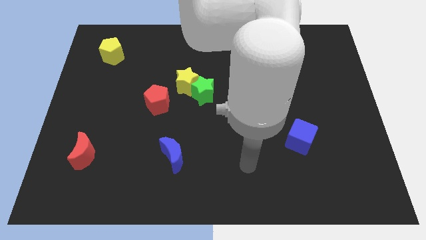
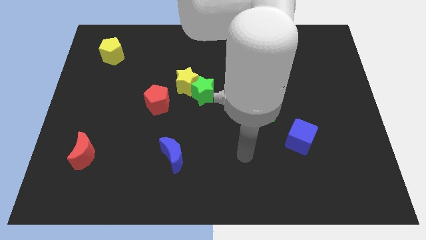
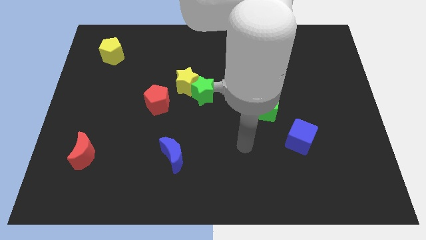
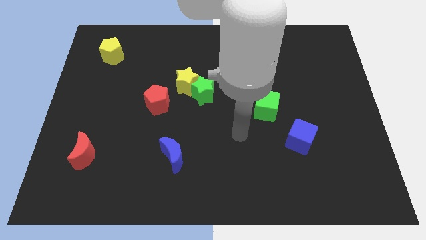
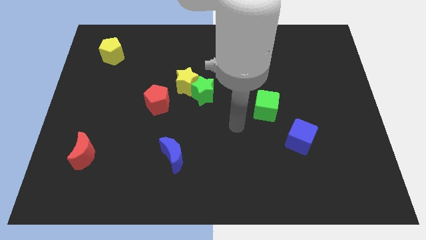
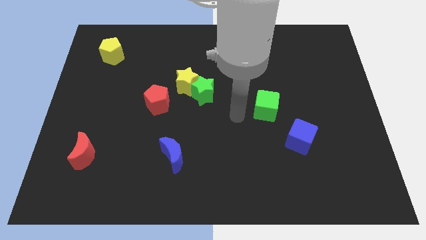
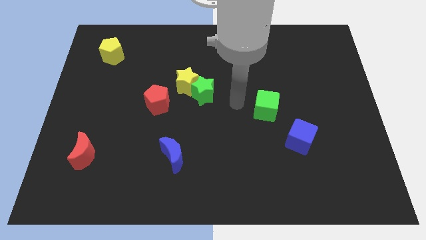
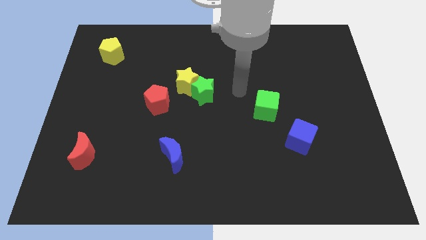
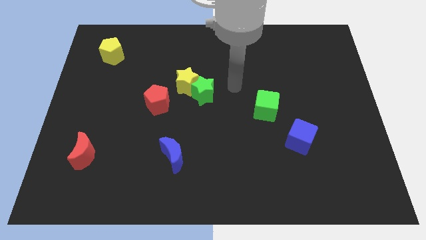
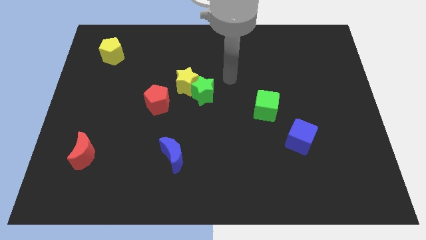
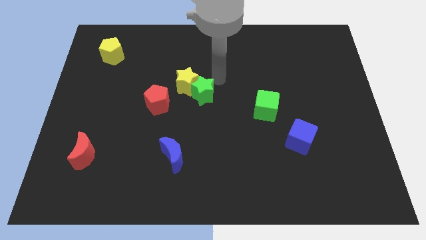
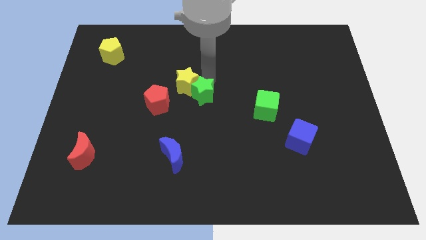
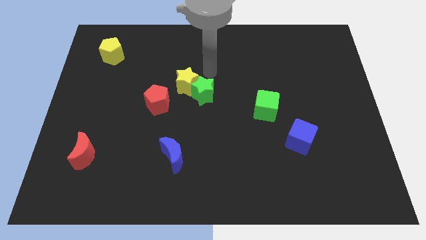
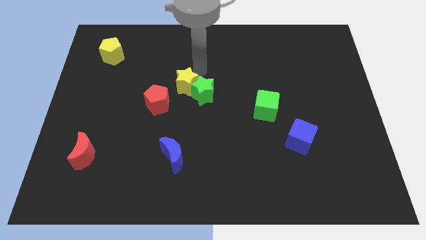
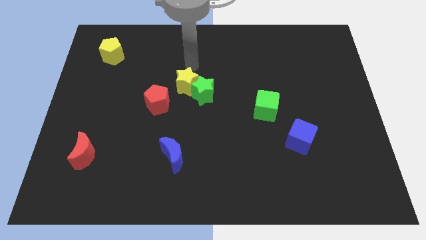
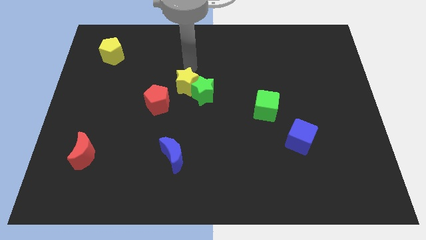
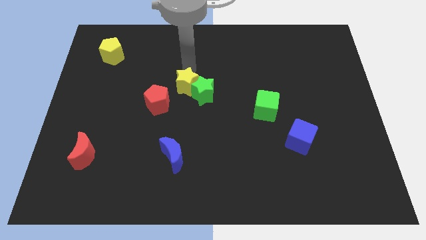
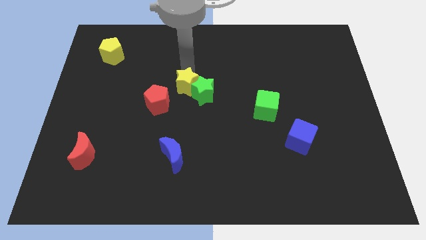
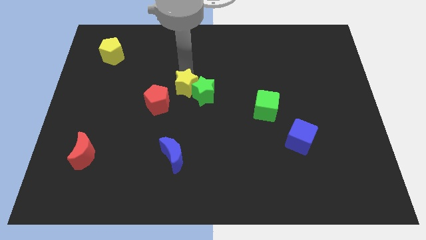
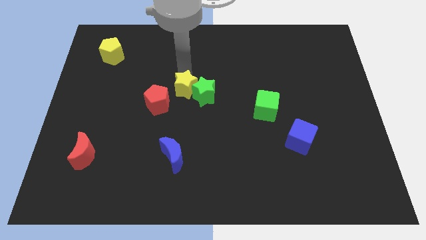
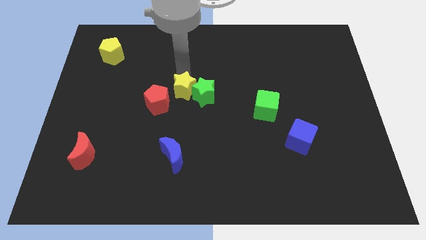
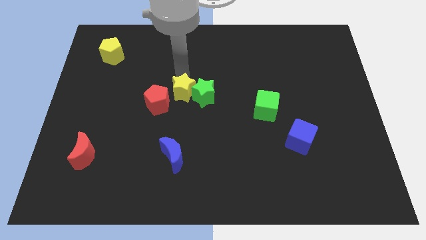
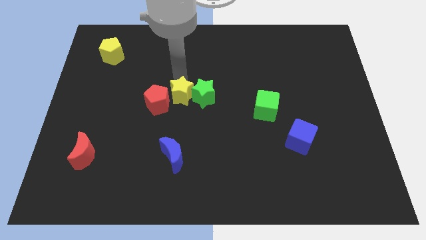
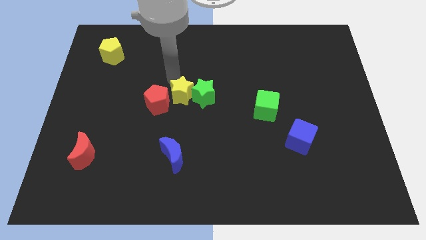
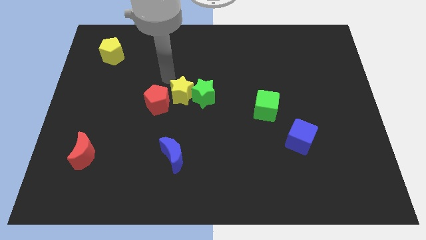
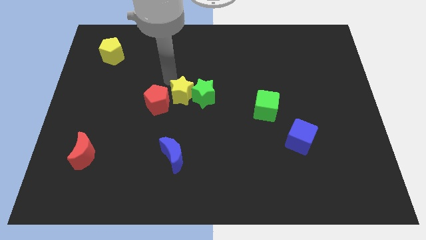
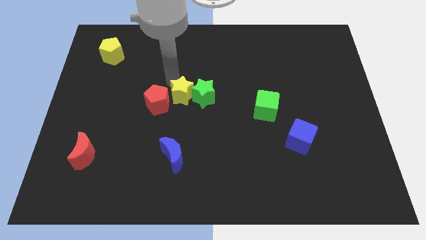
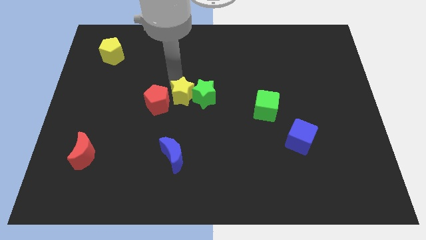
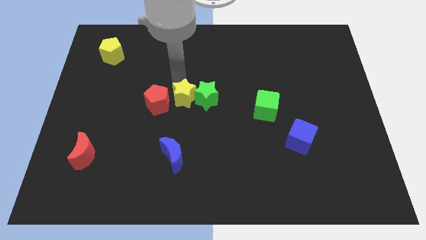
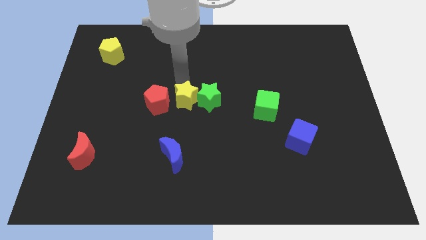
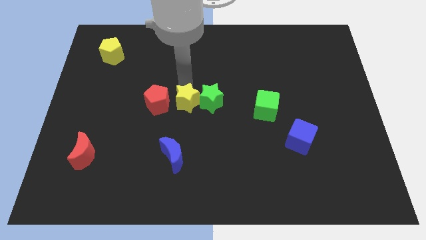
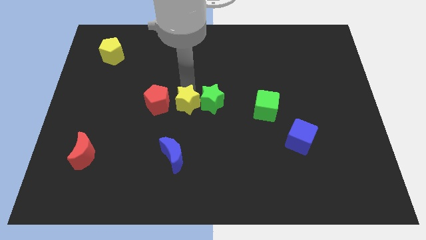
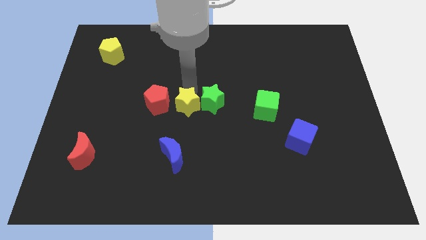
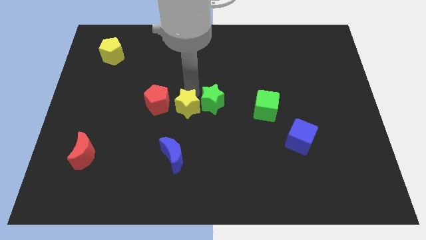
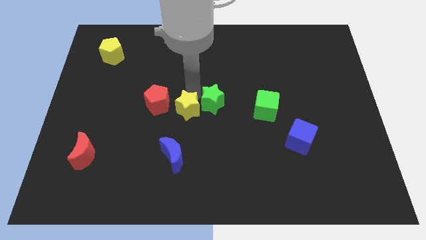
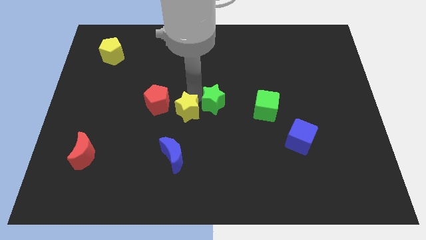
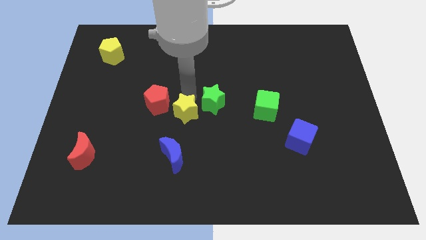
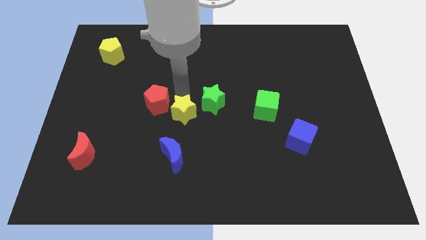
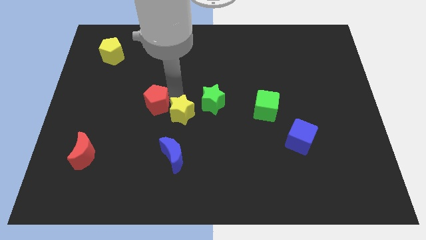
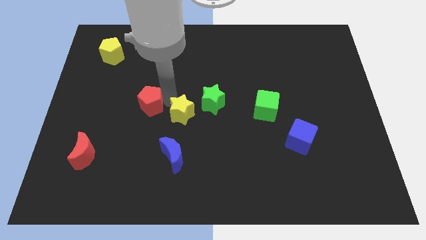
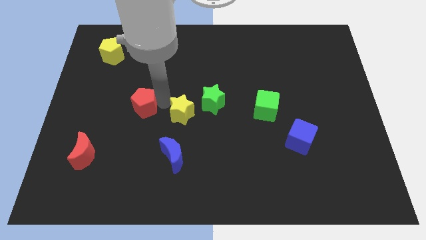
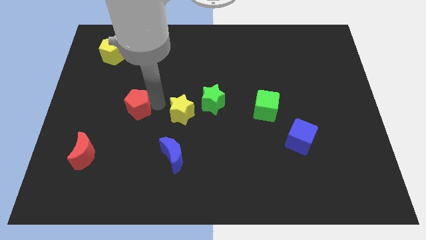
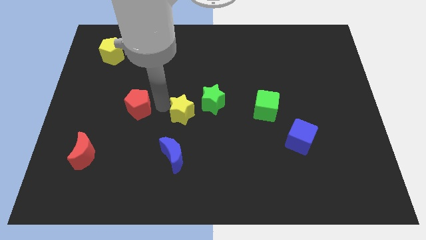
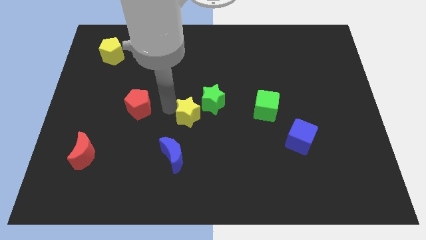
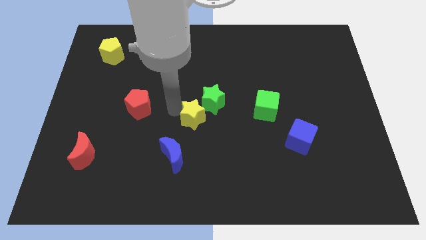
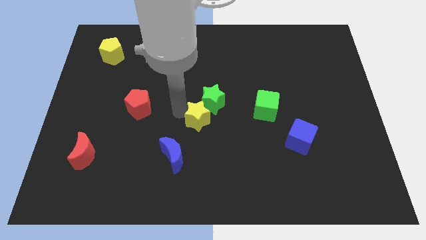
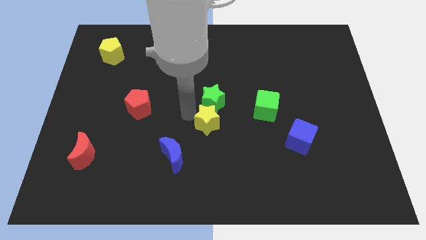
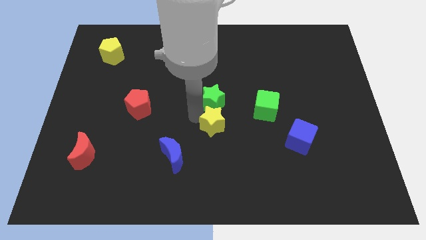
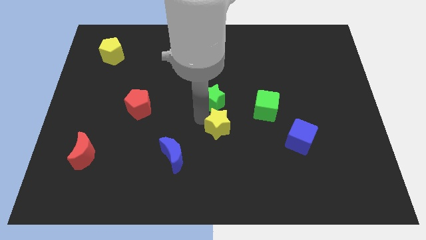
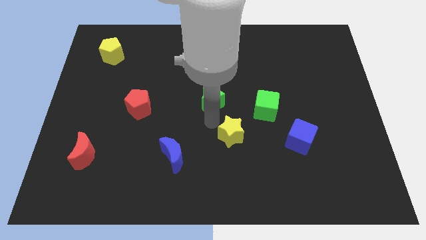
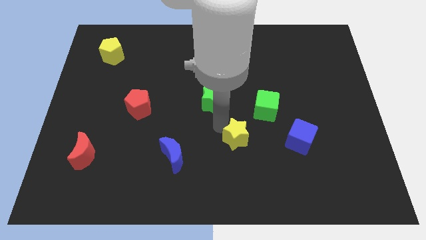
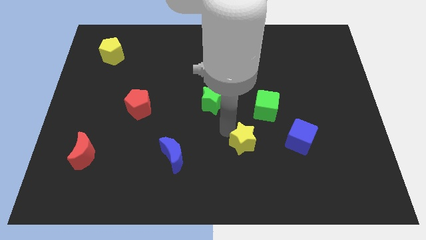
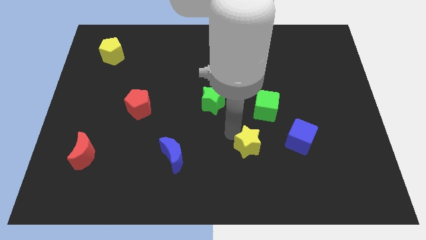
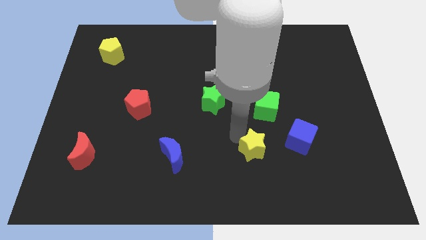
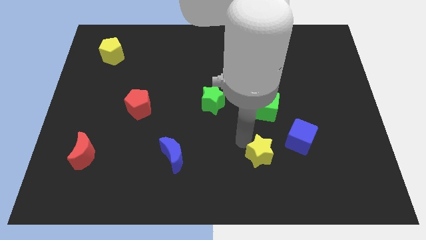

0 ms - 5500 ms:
push the yellow star to the bottom left side of the blue cube

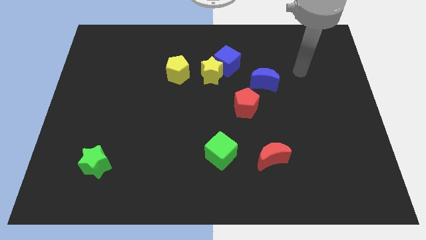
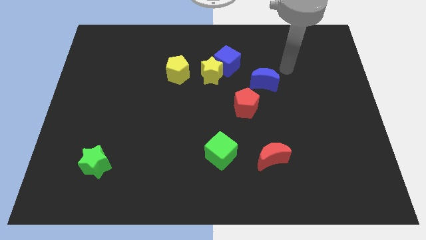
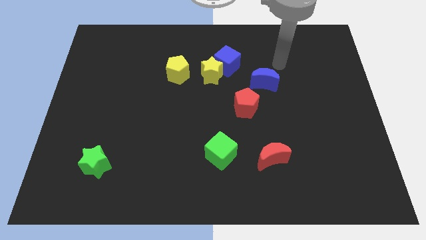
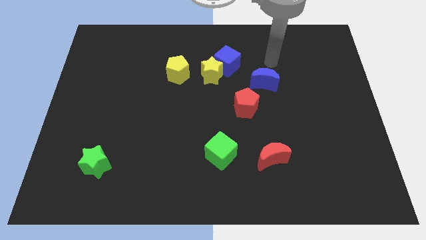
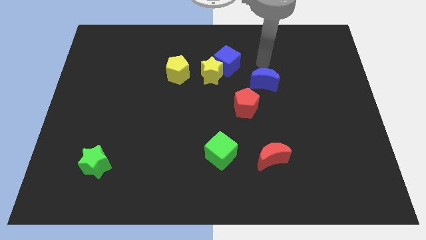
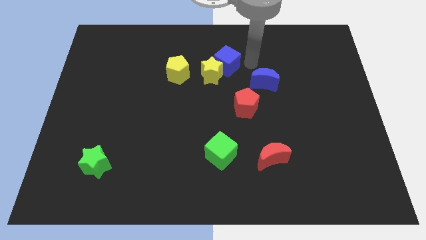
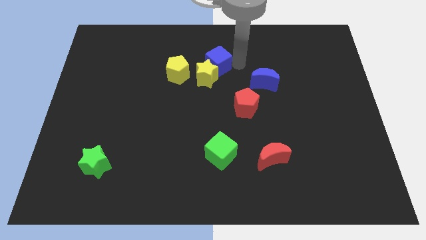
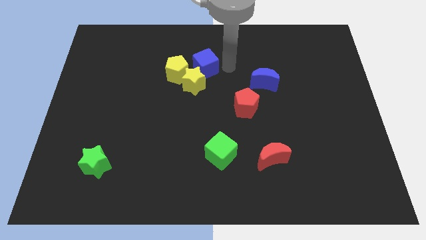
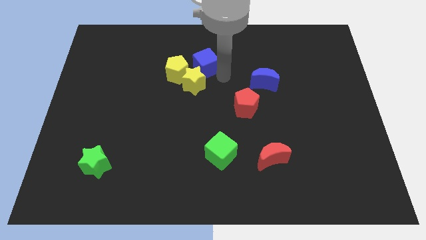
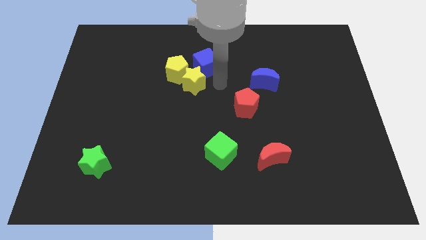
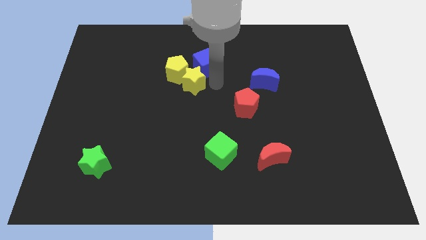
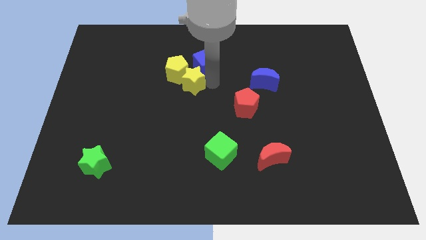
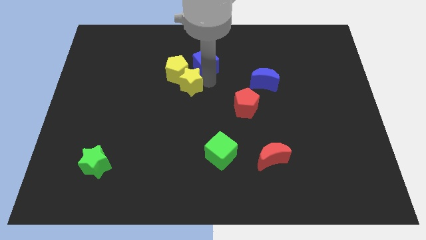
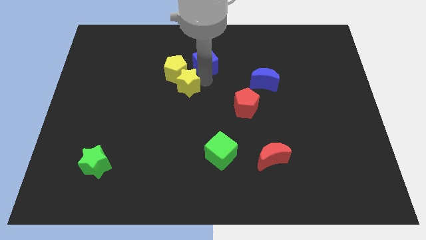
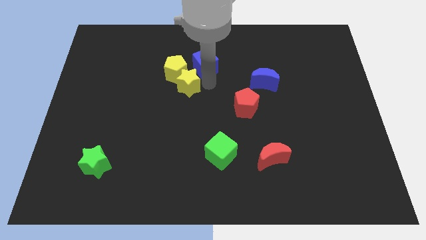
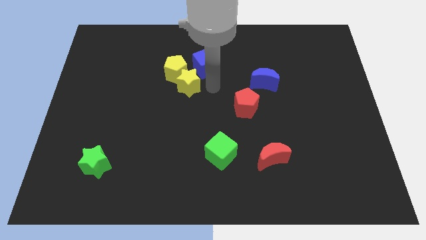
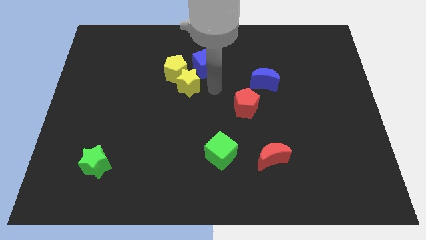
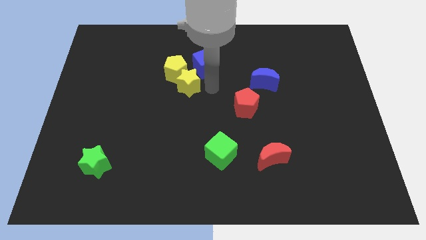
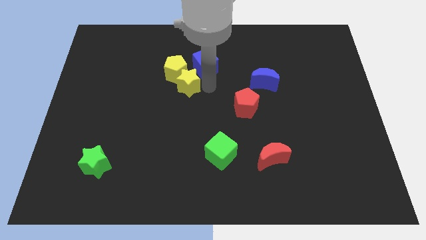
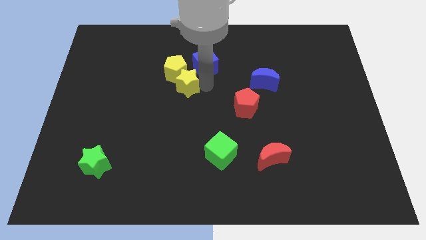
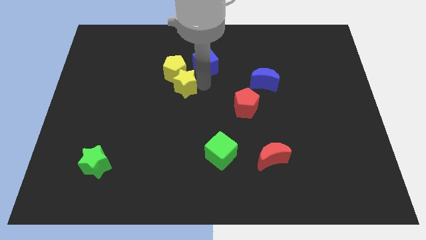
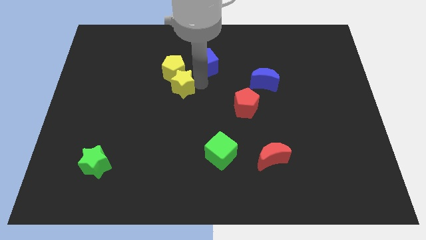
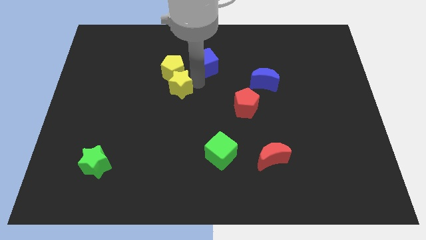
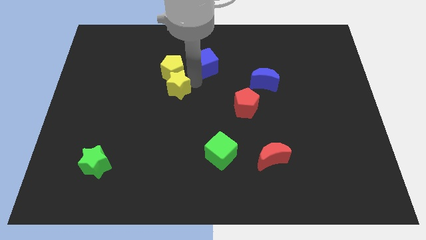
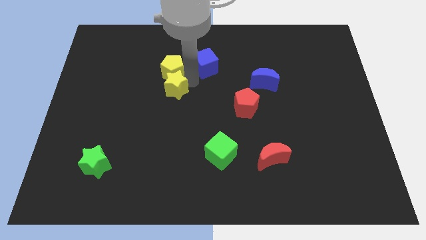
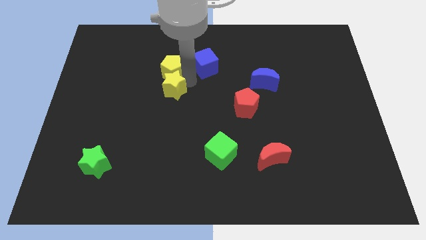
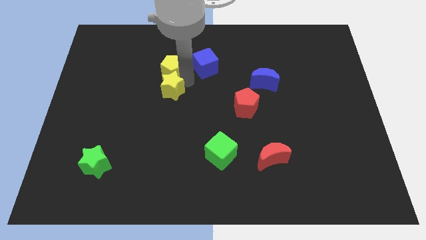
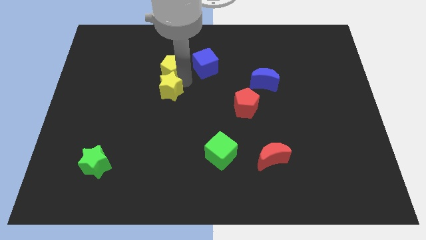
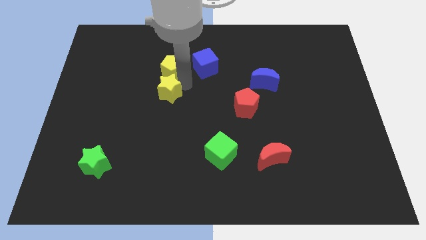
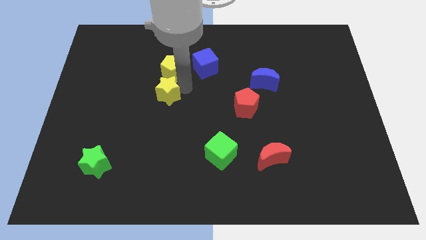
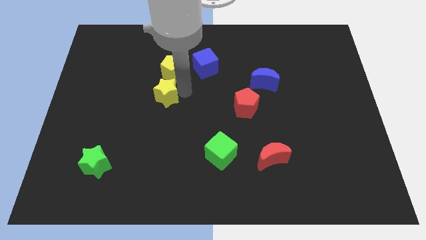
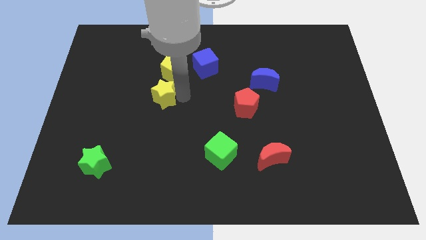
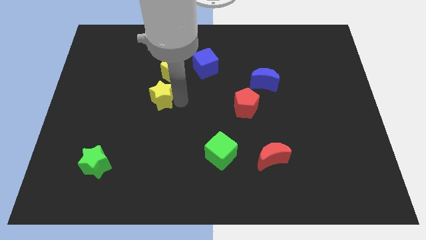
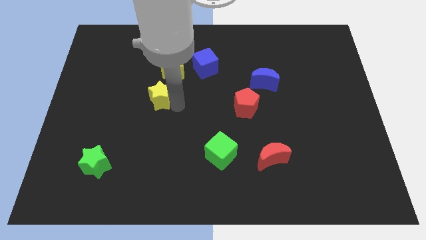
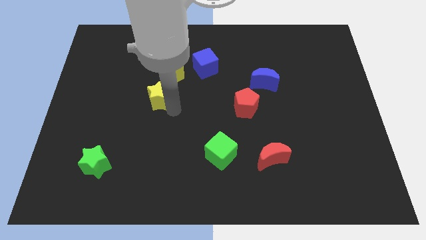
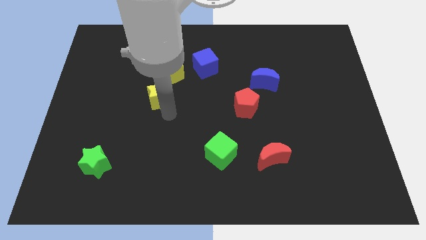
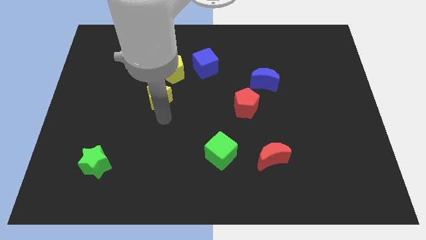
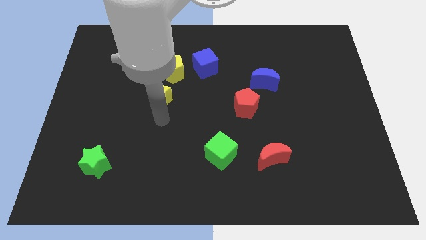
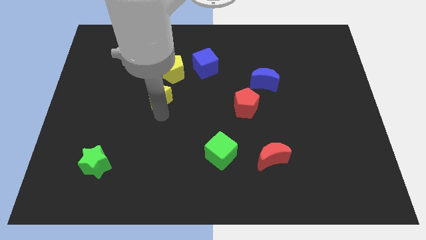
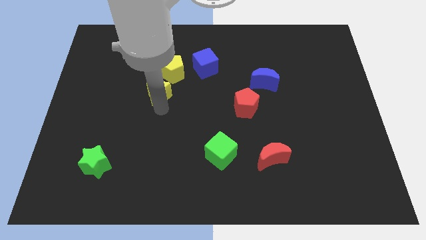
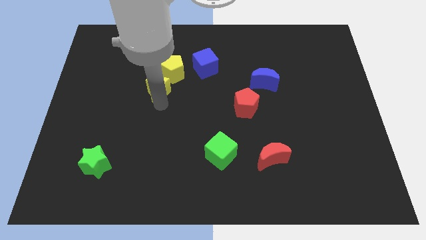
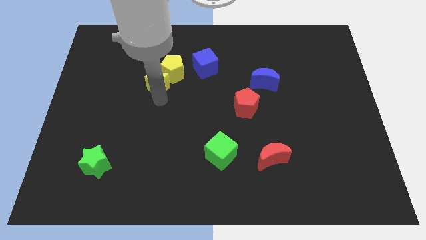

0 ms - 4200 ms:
slide the yellow star left of the yellow pentagon
